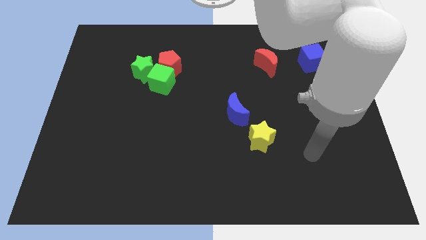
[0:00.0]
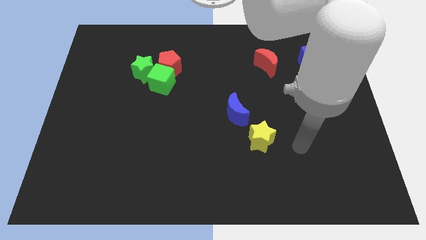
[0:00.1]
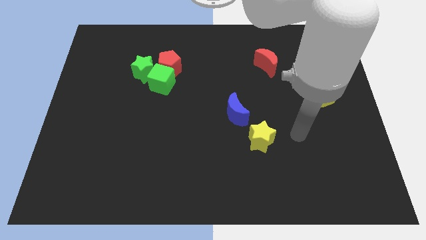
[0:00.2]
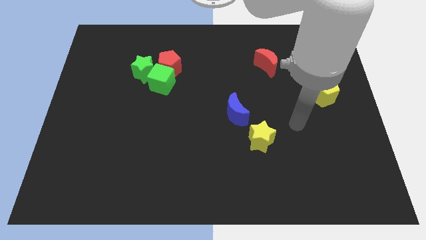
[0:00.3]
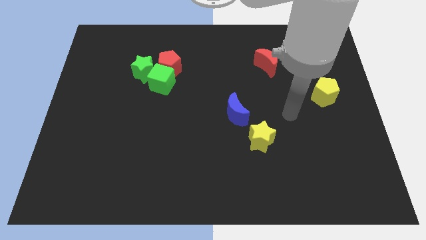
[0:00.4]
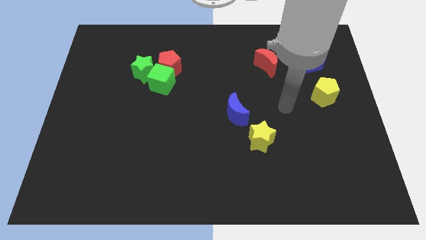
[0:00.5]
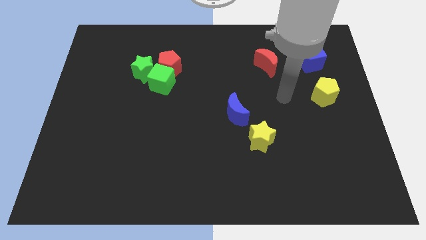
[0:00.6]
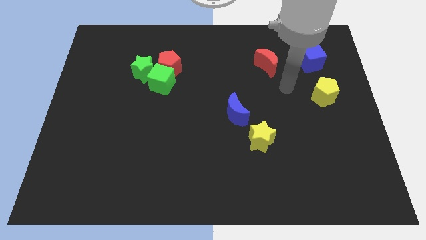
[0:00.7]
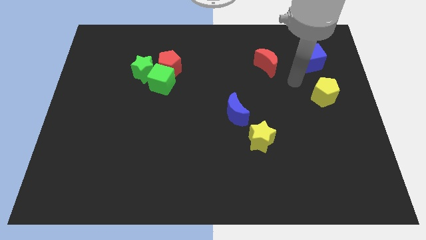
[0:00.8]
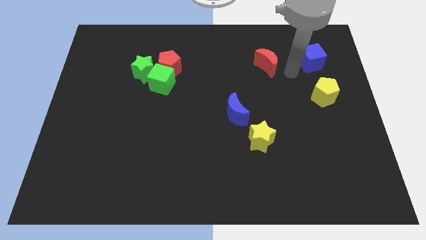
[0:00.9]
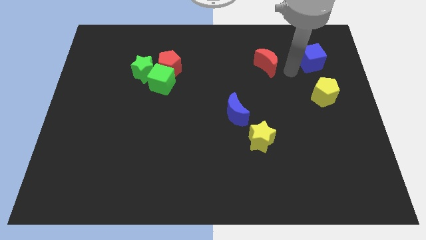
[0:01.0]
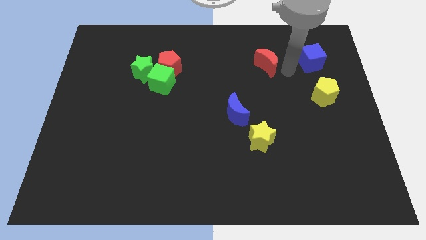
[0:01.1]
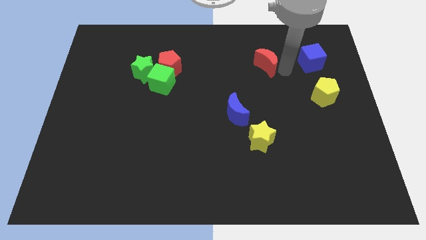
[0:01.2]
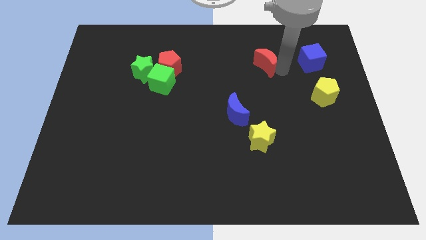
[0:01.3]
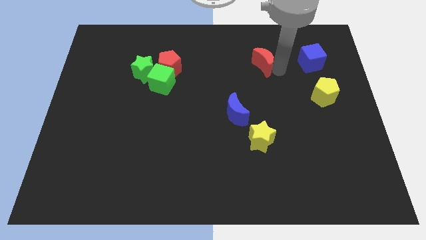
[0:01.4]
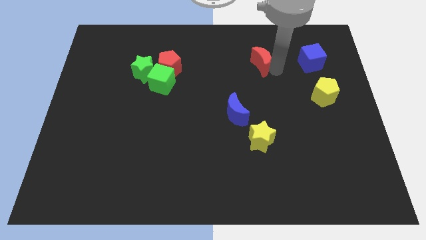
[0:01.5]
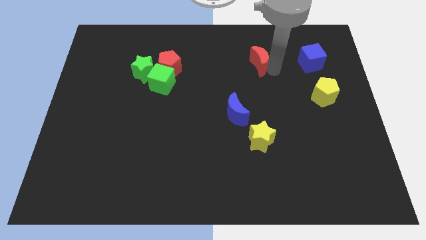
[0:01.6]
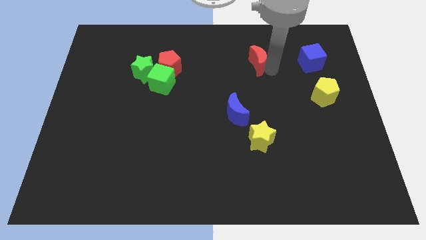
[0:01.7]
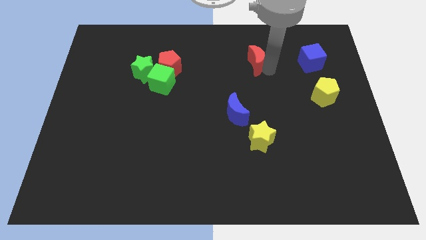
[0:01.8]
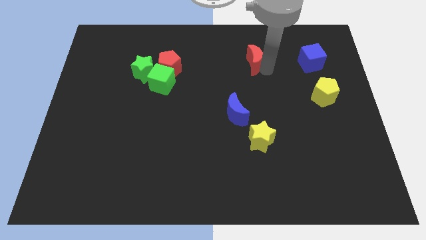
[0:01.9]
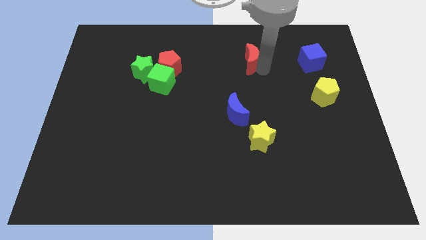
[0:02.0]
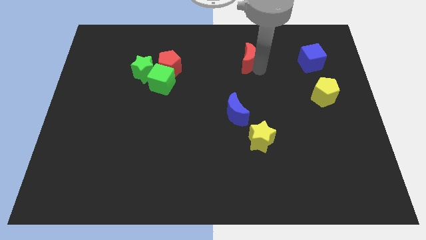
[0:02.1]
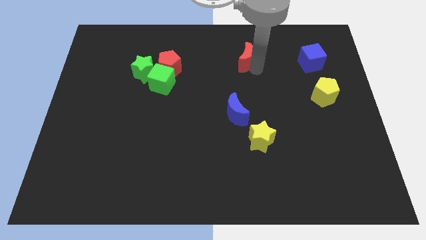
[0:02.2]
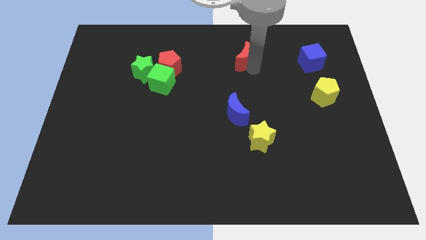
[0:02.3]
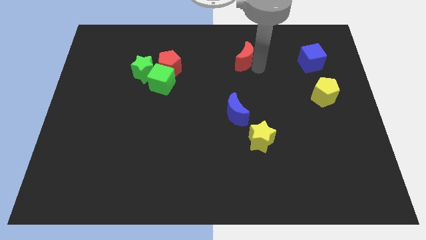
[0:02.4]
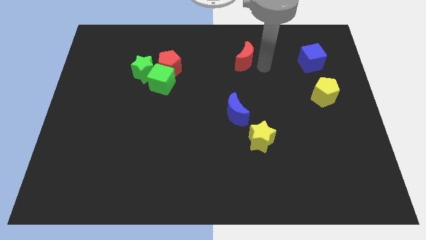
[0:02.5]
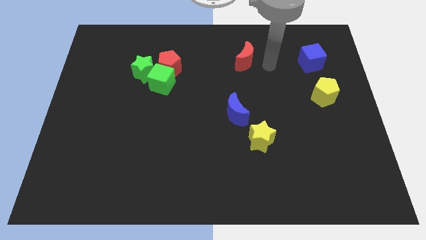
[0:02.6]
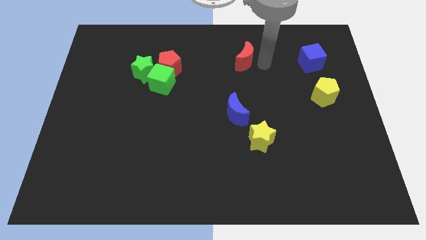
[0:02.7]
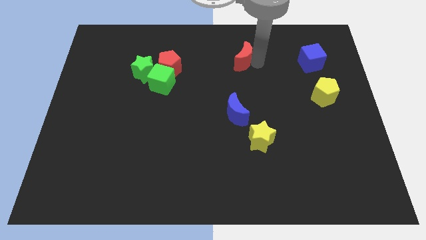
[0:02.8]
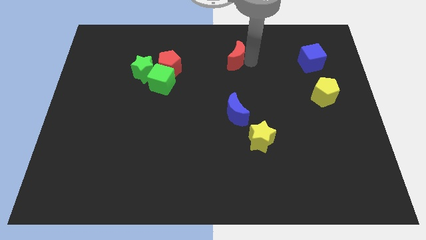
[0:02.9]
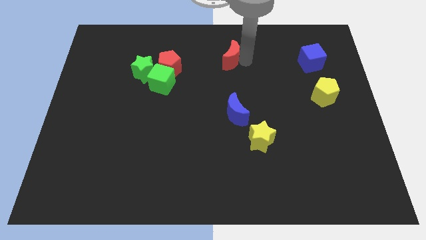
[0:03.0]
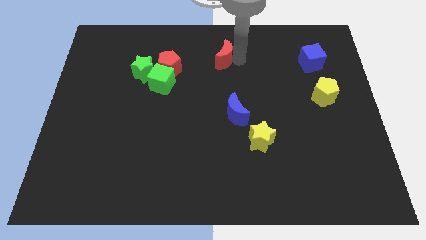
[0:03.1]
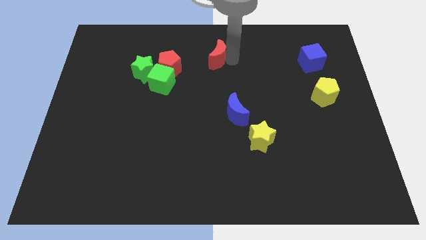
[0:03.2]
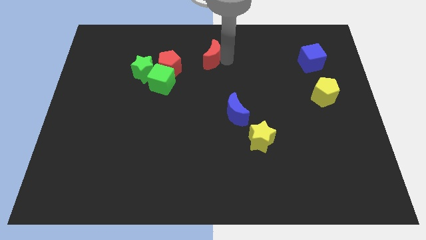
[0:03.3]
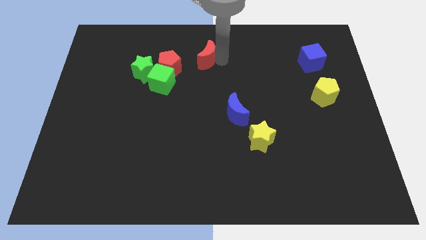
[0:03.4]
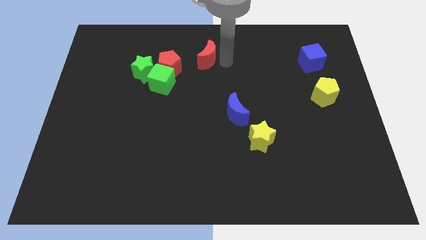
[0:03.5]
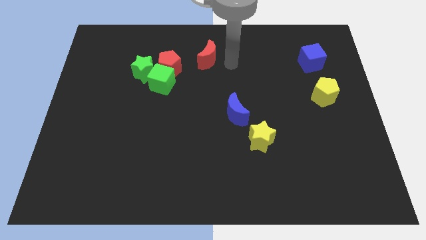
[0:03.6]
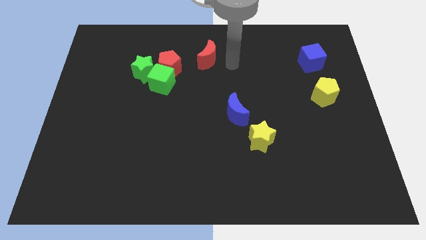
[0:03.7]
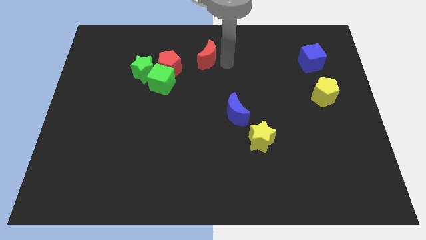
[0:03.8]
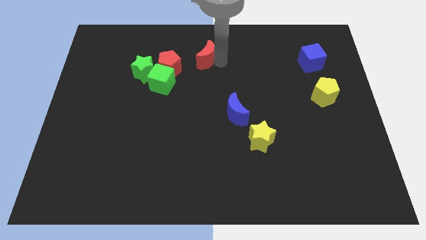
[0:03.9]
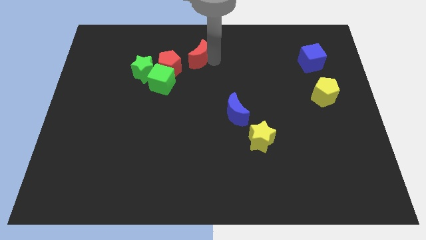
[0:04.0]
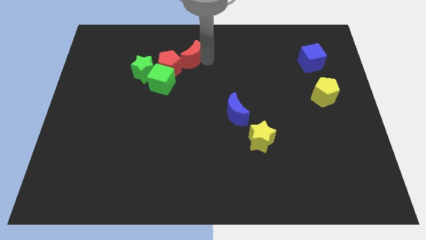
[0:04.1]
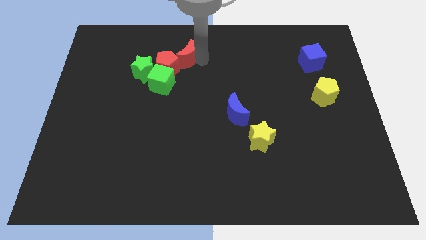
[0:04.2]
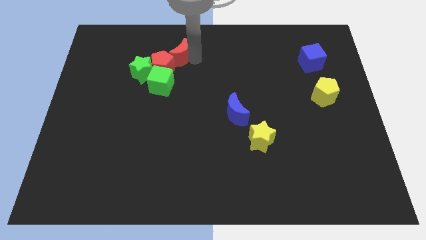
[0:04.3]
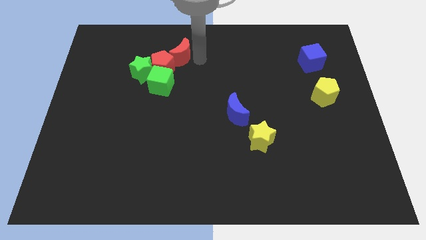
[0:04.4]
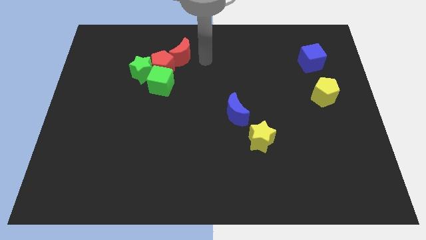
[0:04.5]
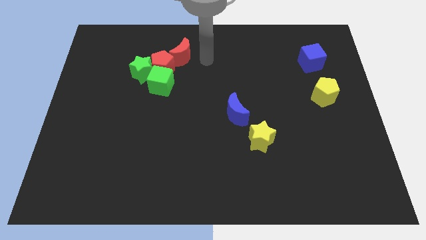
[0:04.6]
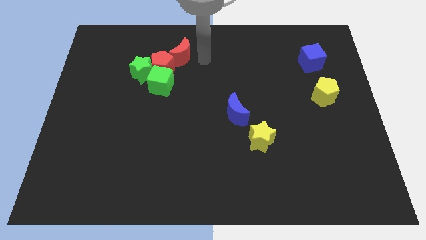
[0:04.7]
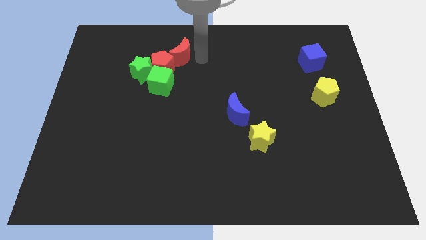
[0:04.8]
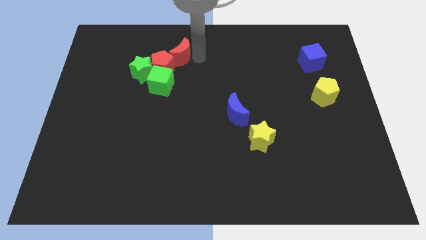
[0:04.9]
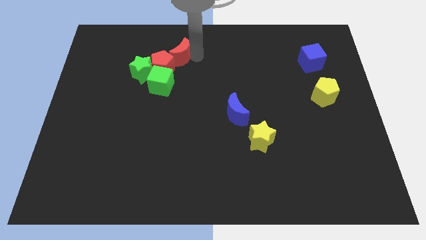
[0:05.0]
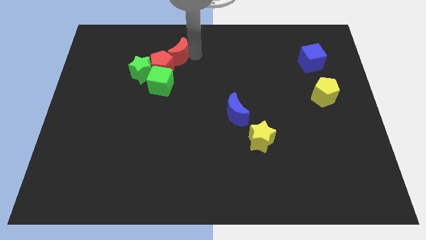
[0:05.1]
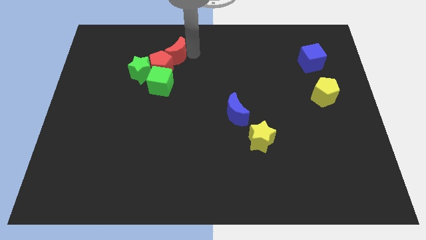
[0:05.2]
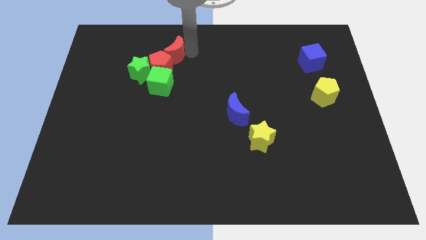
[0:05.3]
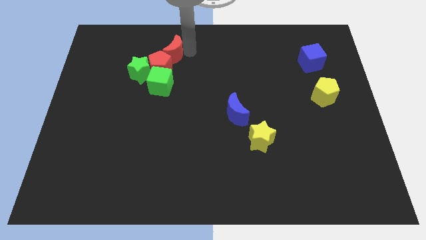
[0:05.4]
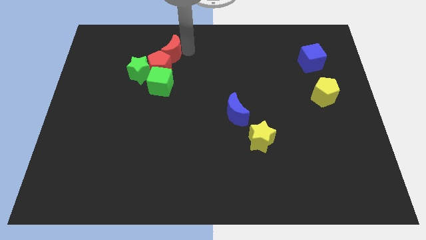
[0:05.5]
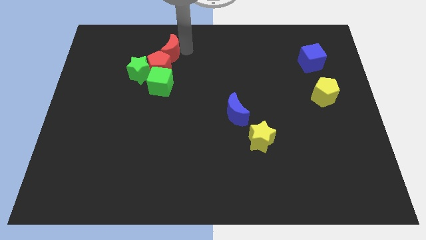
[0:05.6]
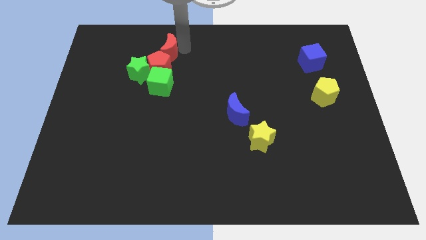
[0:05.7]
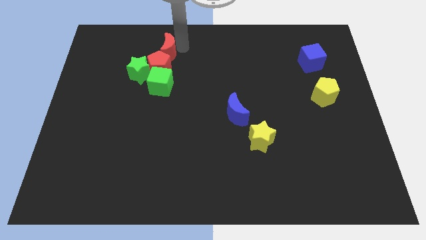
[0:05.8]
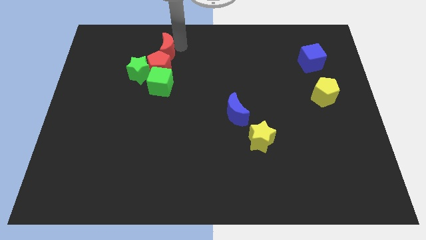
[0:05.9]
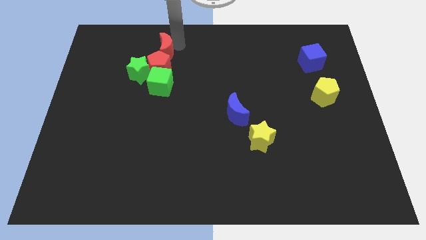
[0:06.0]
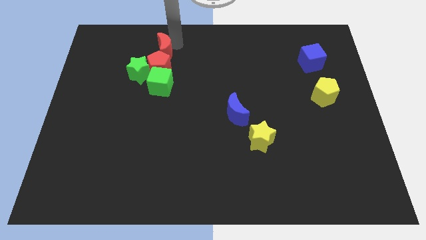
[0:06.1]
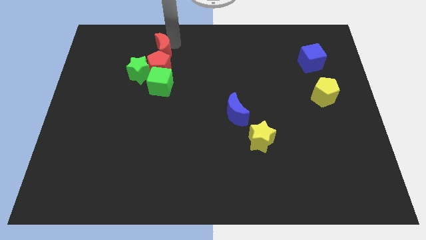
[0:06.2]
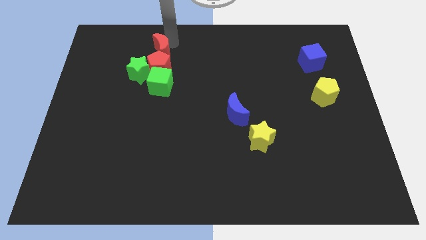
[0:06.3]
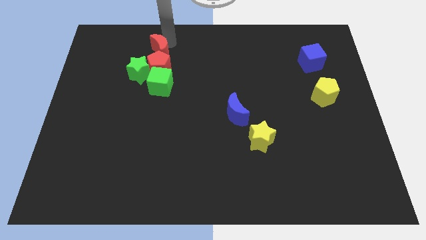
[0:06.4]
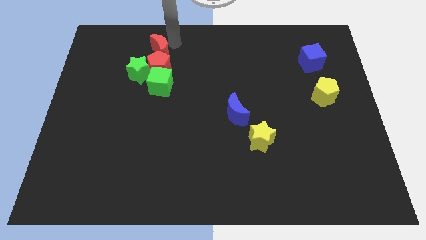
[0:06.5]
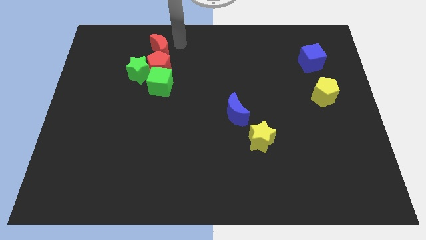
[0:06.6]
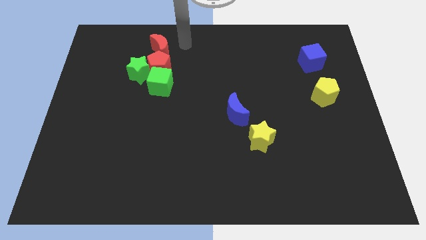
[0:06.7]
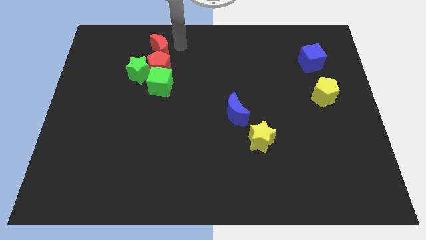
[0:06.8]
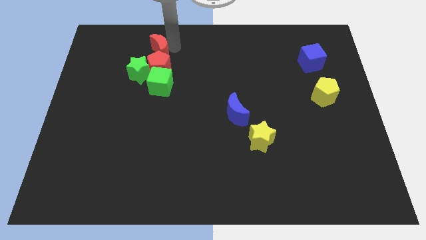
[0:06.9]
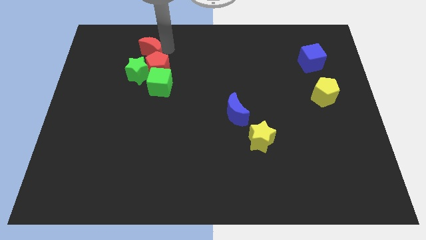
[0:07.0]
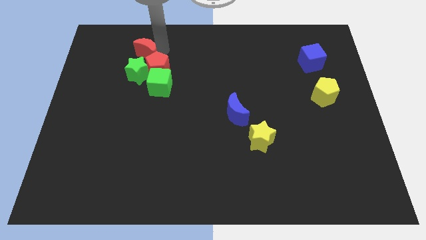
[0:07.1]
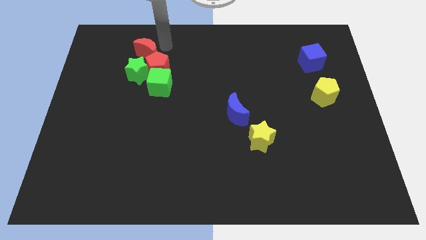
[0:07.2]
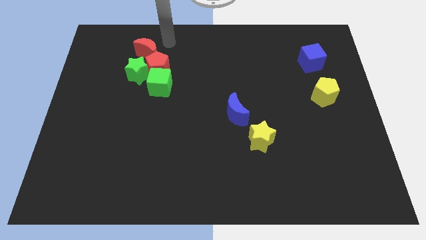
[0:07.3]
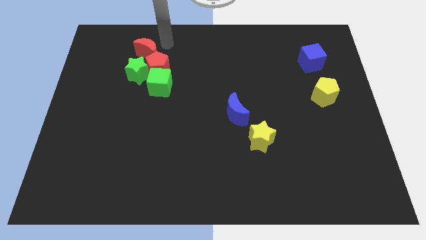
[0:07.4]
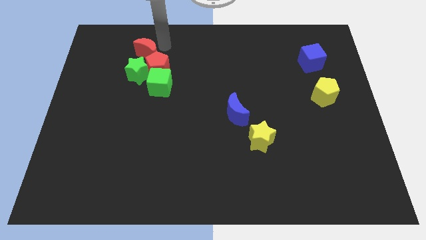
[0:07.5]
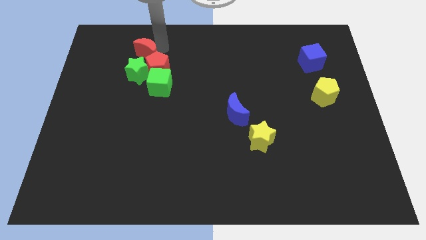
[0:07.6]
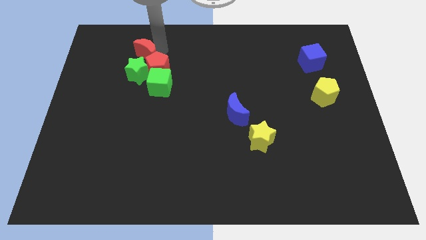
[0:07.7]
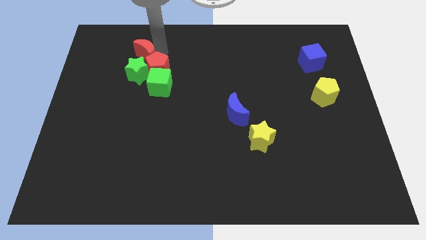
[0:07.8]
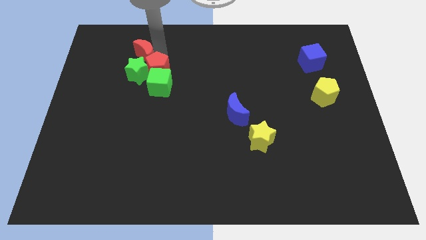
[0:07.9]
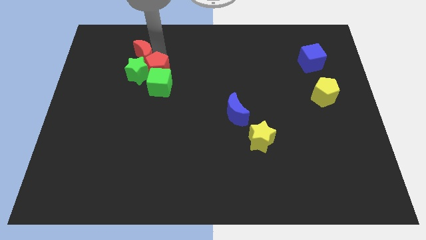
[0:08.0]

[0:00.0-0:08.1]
move the red moon just left of the red pentagon
